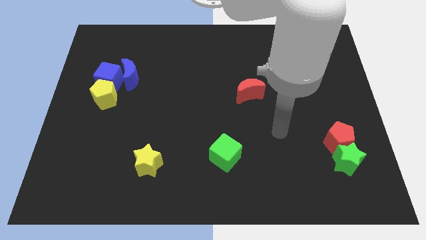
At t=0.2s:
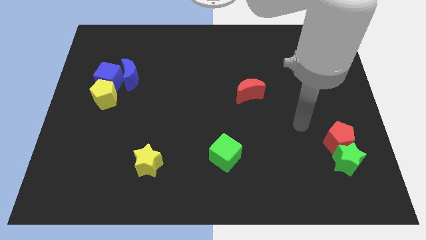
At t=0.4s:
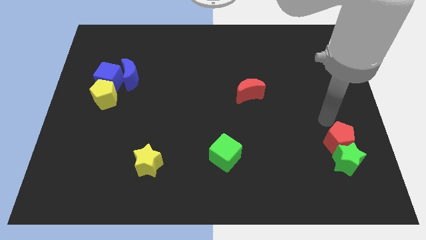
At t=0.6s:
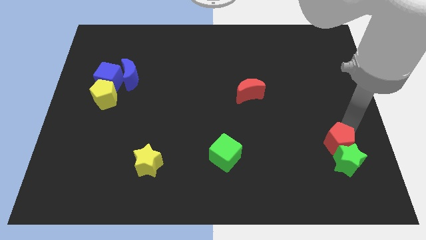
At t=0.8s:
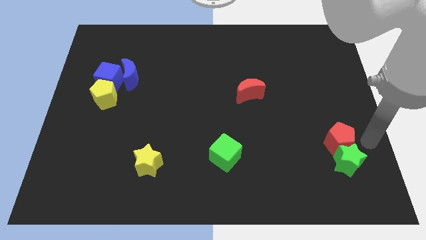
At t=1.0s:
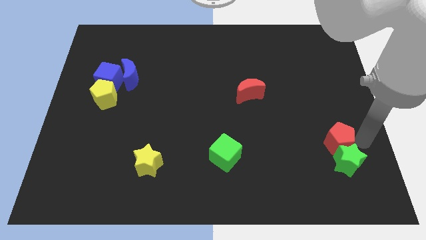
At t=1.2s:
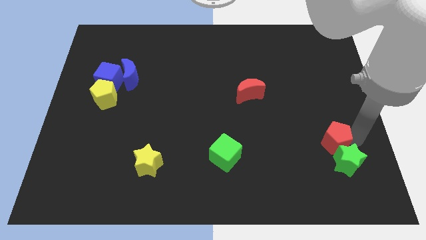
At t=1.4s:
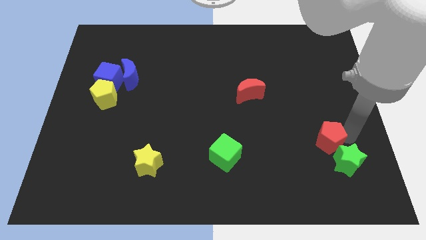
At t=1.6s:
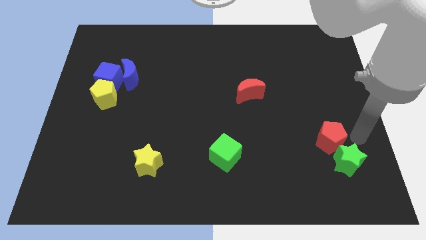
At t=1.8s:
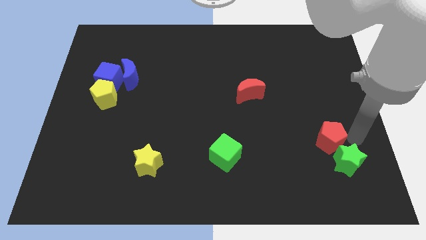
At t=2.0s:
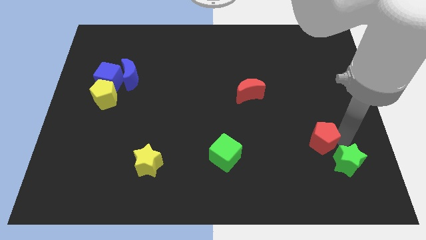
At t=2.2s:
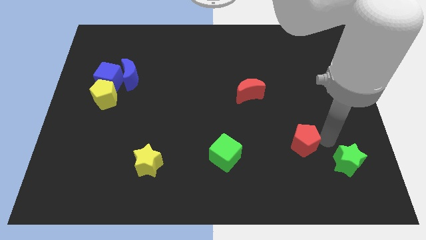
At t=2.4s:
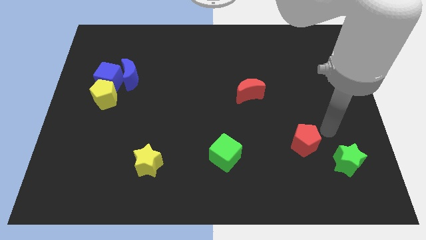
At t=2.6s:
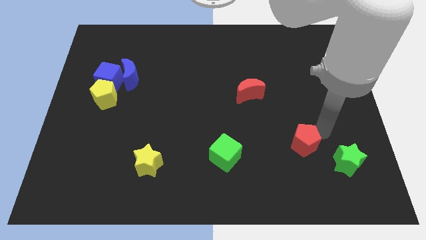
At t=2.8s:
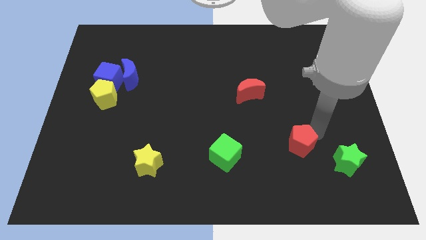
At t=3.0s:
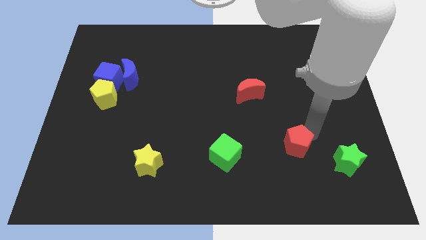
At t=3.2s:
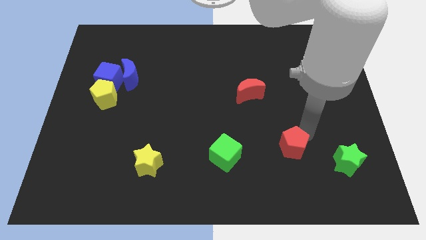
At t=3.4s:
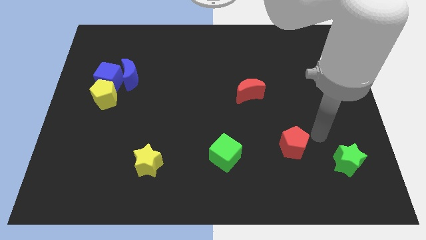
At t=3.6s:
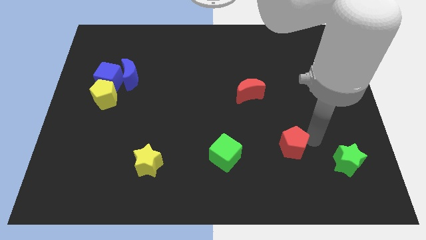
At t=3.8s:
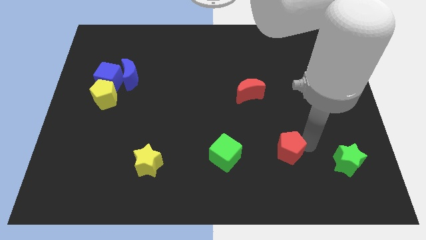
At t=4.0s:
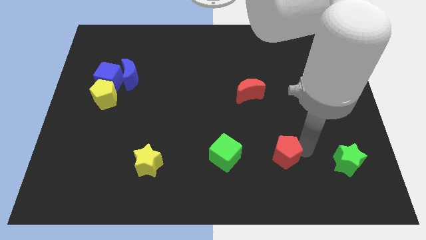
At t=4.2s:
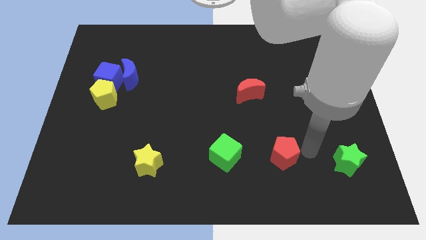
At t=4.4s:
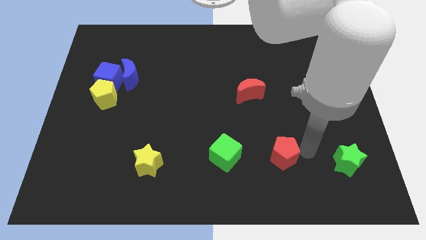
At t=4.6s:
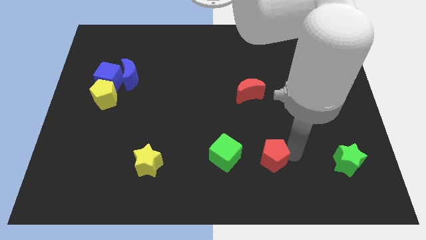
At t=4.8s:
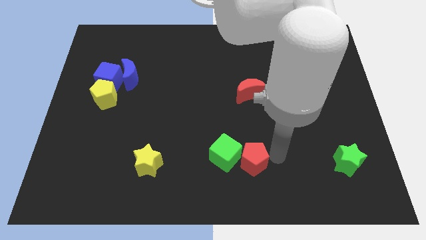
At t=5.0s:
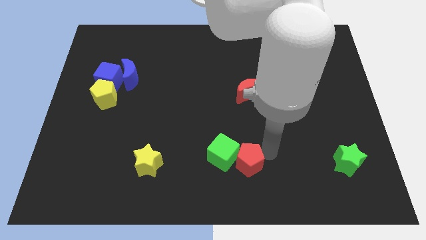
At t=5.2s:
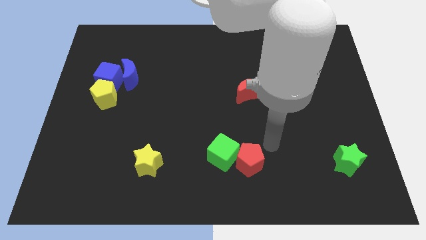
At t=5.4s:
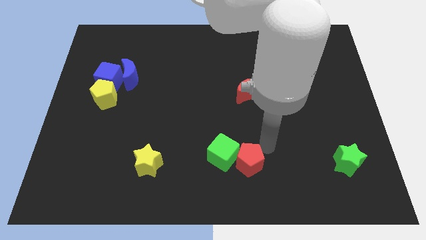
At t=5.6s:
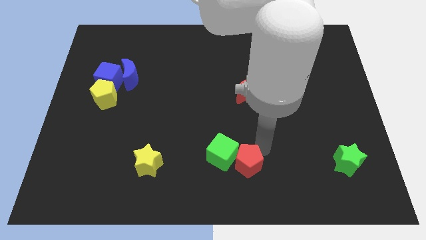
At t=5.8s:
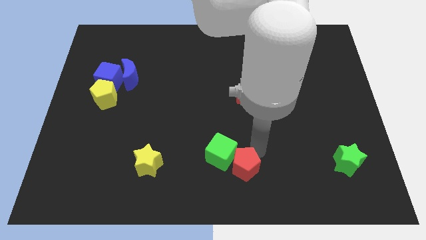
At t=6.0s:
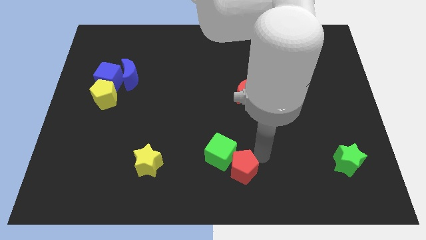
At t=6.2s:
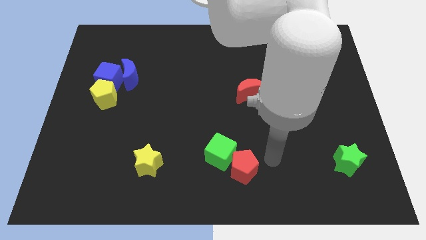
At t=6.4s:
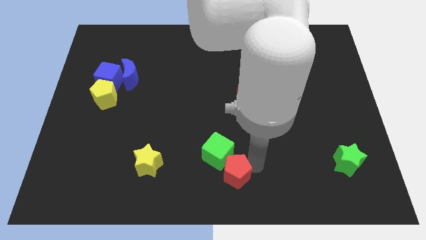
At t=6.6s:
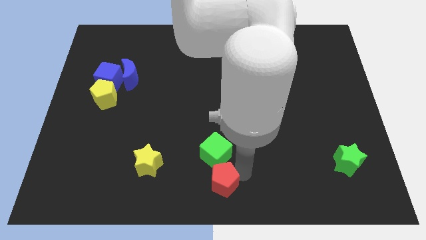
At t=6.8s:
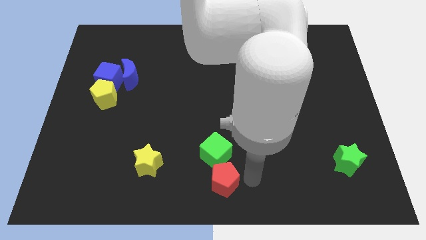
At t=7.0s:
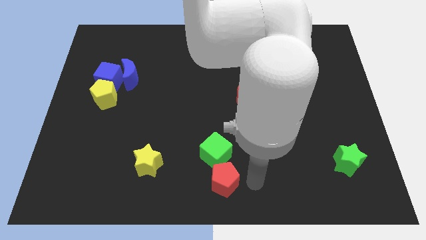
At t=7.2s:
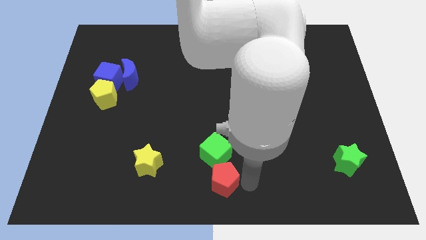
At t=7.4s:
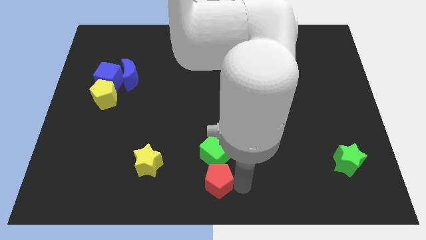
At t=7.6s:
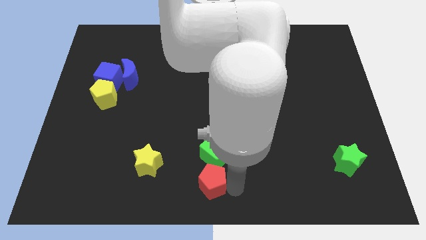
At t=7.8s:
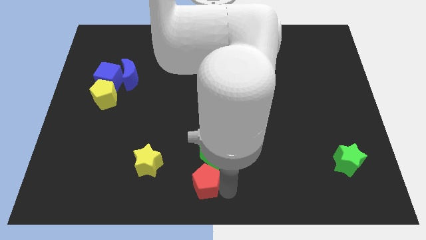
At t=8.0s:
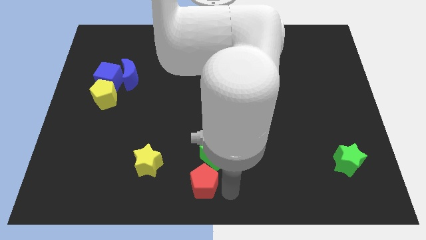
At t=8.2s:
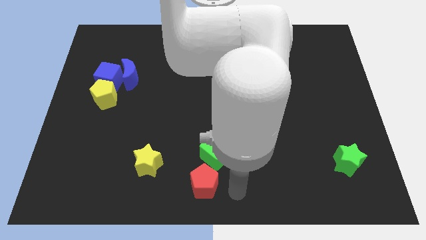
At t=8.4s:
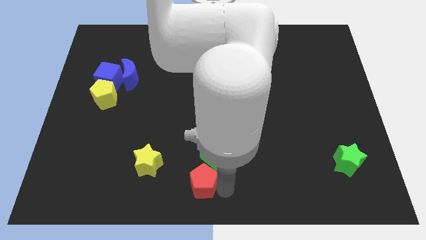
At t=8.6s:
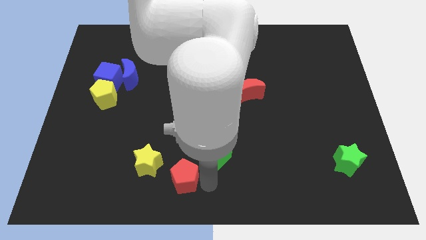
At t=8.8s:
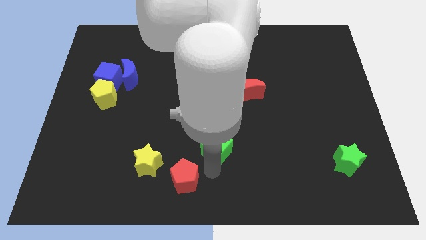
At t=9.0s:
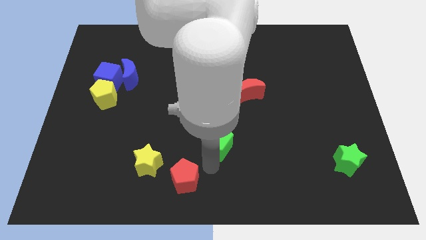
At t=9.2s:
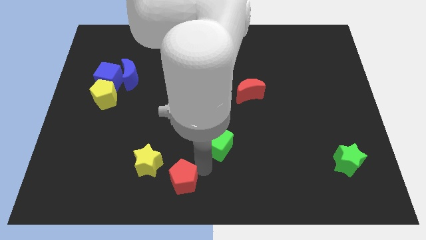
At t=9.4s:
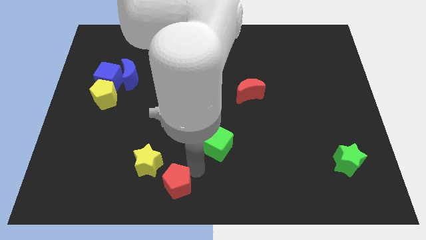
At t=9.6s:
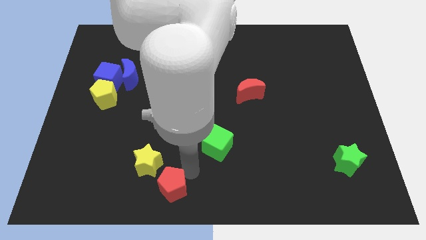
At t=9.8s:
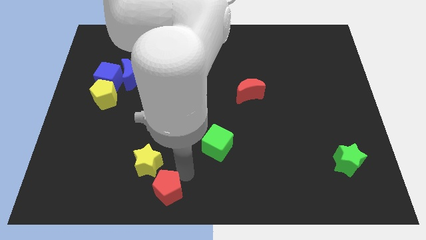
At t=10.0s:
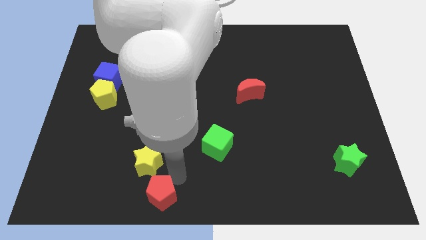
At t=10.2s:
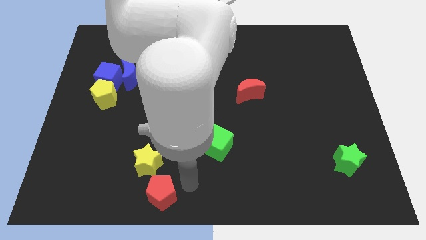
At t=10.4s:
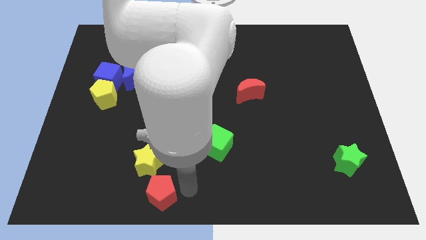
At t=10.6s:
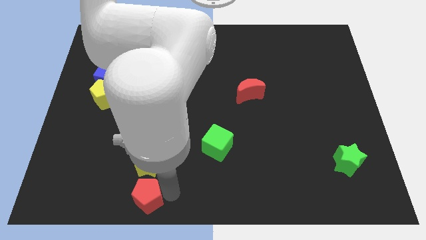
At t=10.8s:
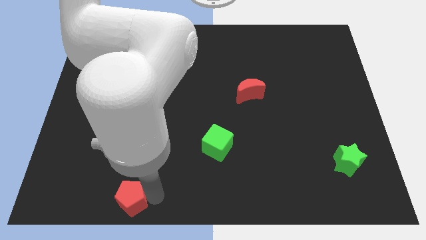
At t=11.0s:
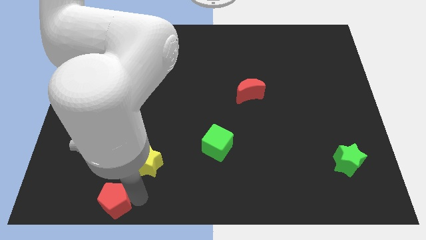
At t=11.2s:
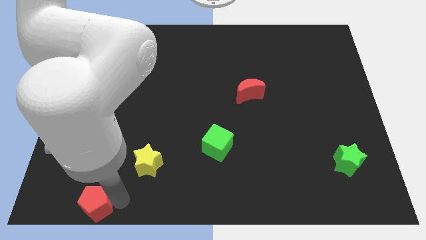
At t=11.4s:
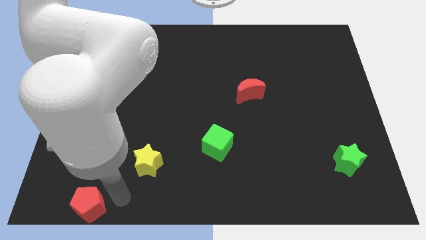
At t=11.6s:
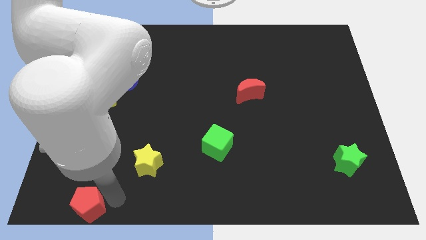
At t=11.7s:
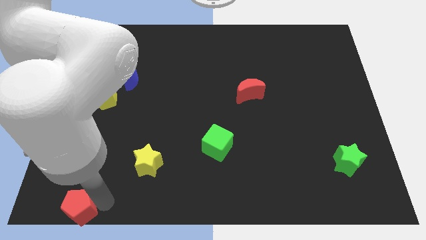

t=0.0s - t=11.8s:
put the red pentagon to the bottom left of the board
